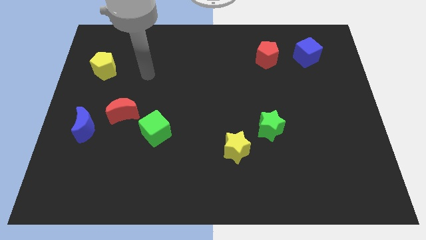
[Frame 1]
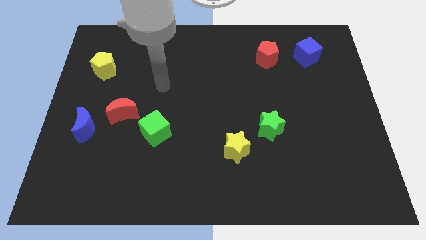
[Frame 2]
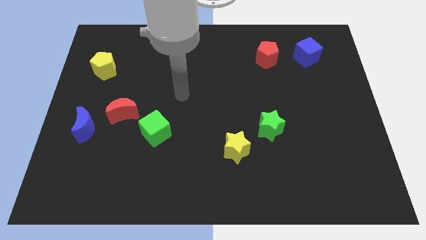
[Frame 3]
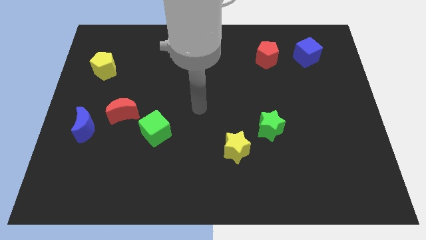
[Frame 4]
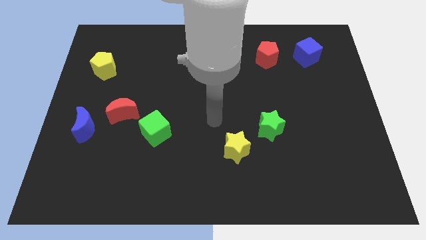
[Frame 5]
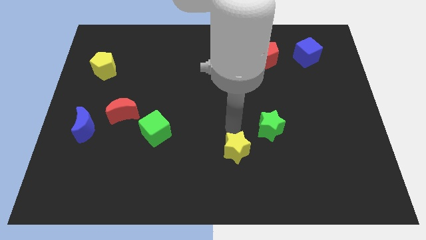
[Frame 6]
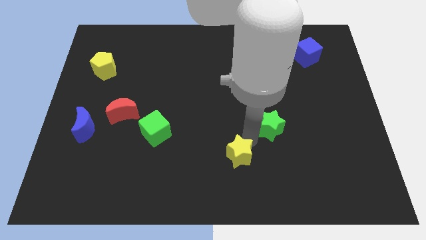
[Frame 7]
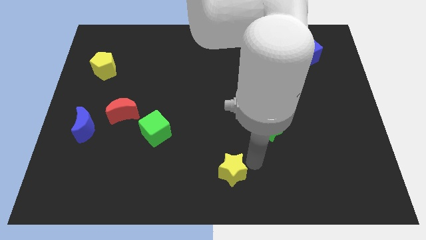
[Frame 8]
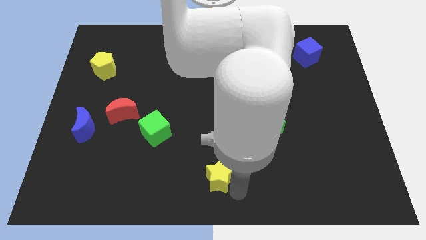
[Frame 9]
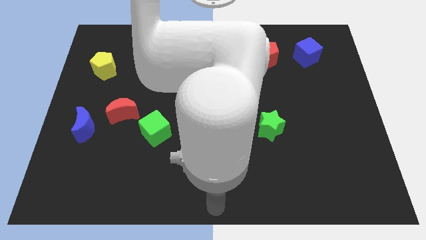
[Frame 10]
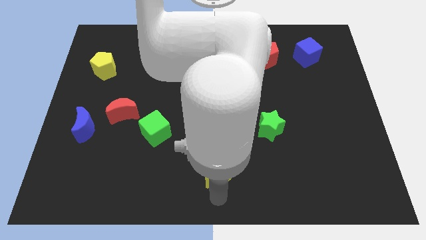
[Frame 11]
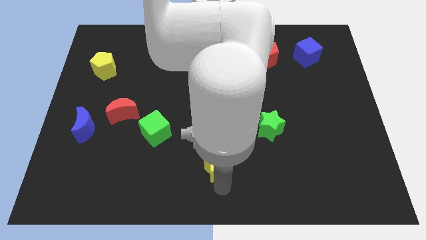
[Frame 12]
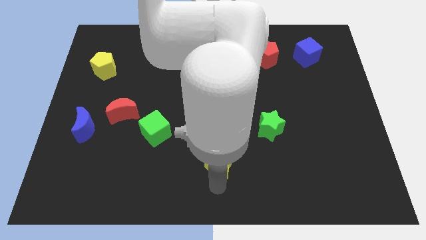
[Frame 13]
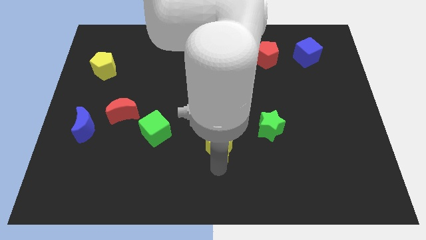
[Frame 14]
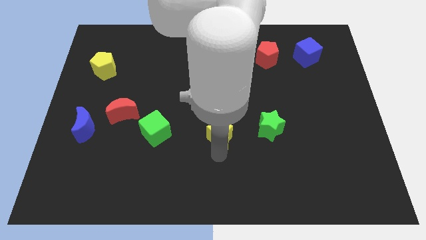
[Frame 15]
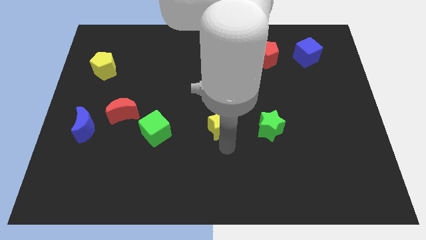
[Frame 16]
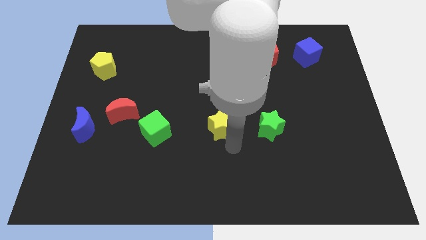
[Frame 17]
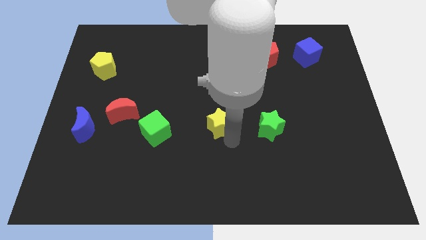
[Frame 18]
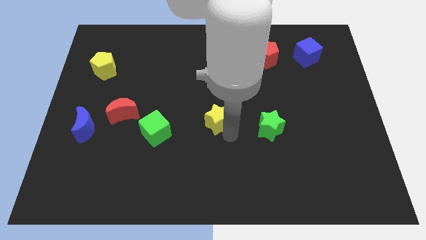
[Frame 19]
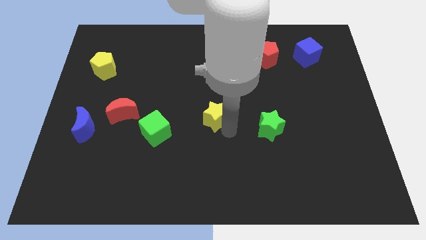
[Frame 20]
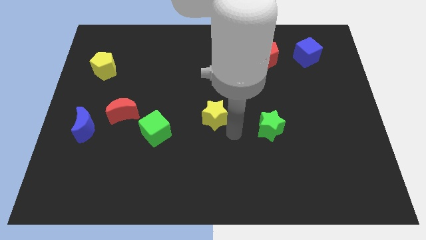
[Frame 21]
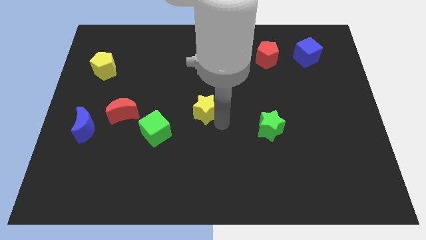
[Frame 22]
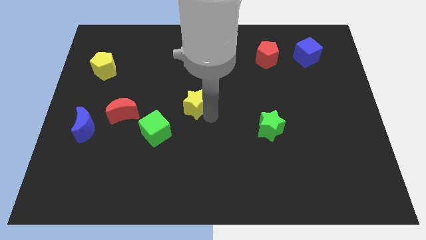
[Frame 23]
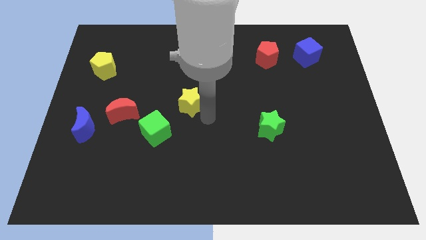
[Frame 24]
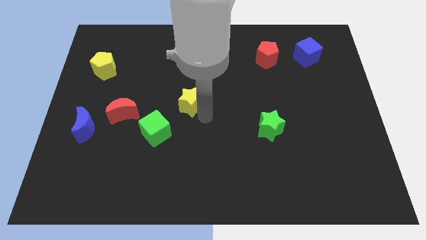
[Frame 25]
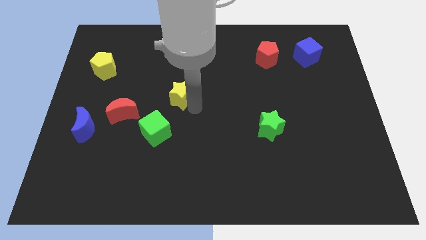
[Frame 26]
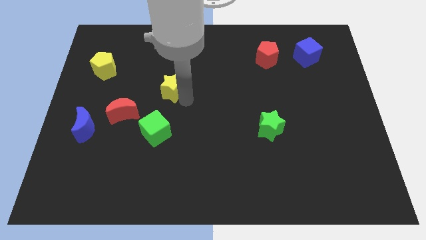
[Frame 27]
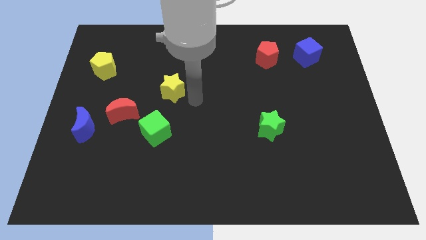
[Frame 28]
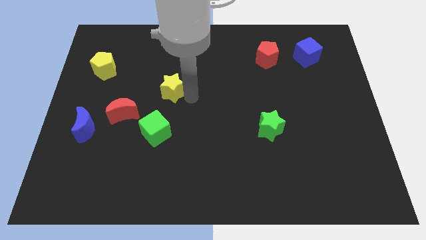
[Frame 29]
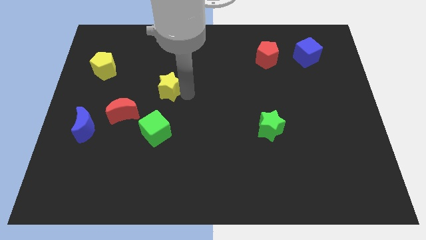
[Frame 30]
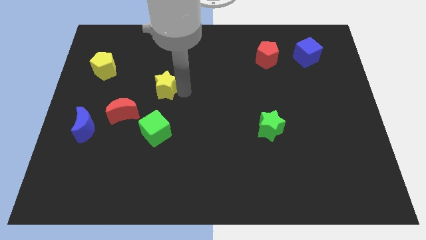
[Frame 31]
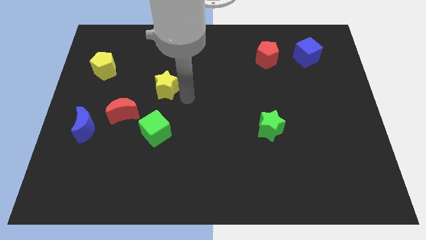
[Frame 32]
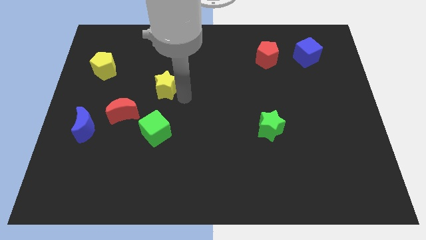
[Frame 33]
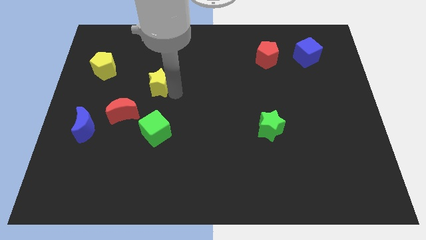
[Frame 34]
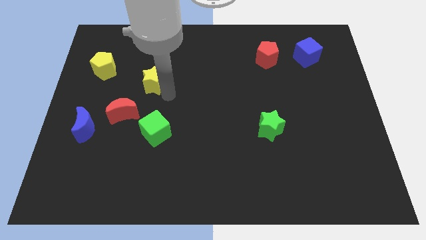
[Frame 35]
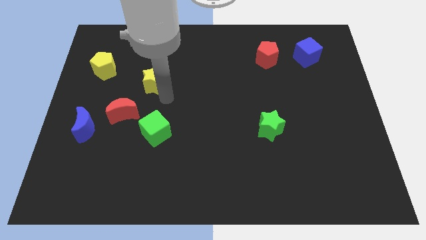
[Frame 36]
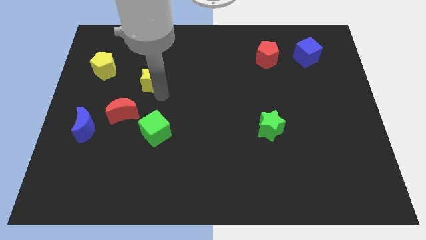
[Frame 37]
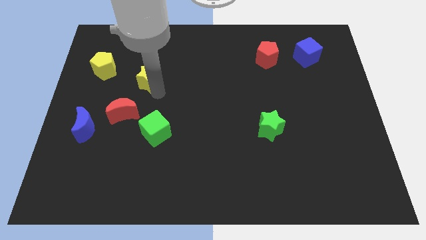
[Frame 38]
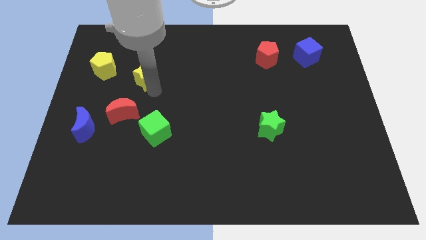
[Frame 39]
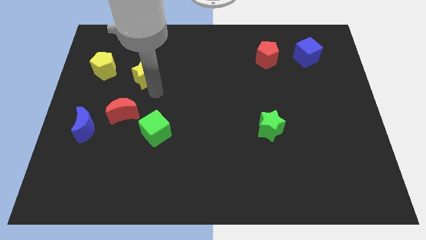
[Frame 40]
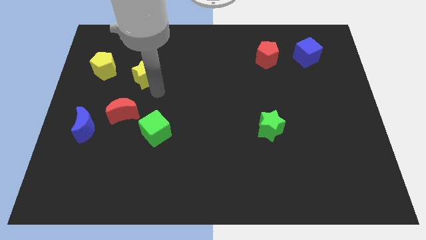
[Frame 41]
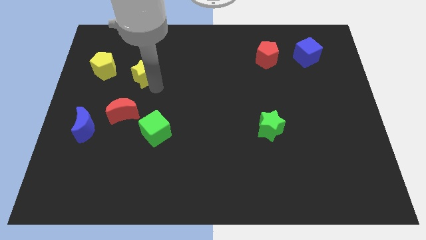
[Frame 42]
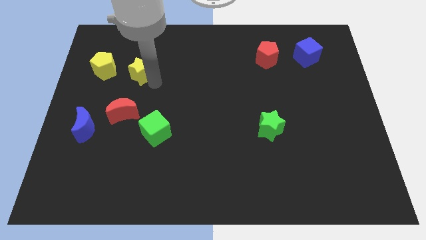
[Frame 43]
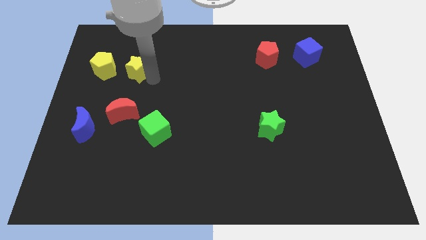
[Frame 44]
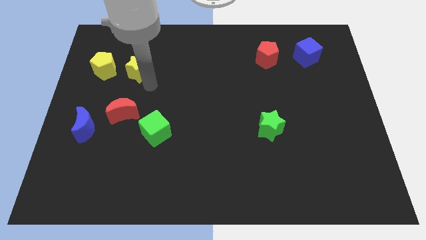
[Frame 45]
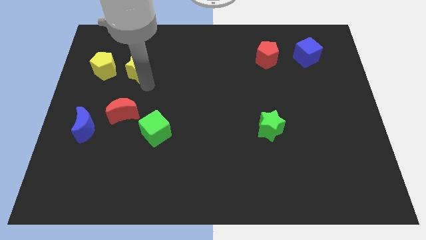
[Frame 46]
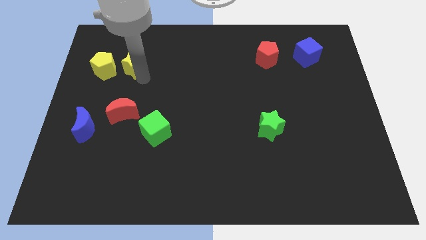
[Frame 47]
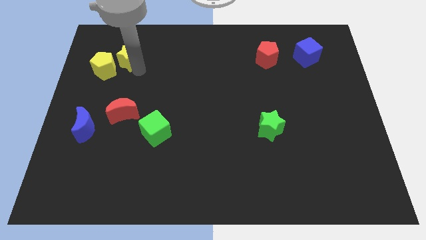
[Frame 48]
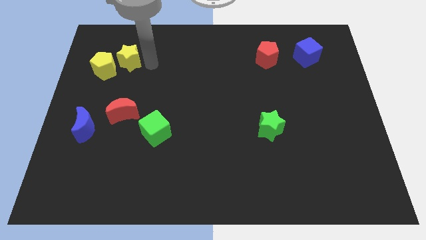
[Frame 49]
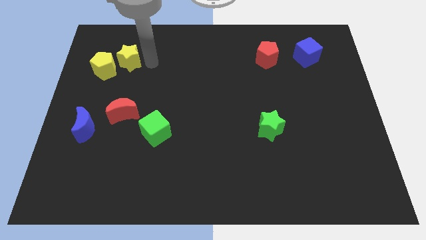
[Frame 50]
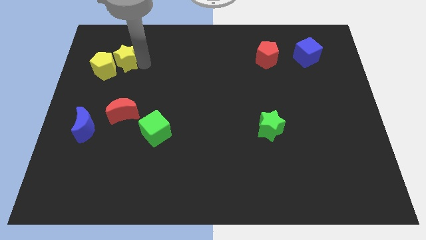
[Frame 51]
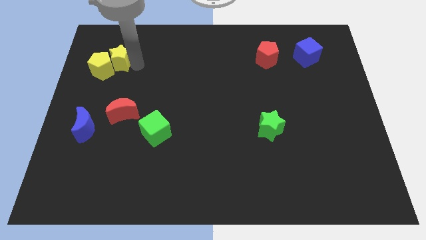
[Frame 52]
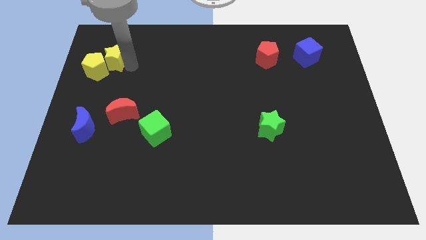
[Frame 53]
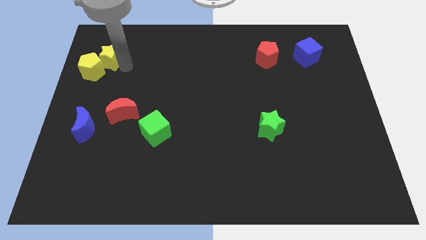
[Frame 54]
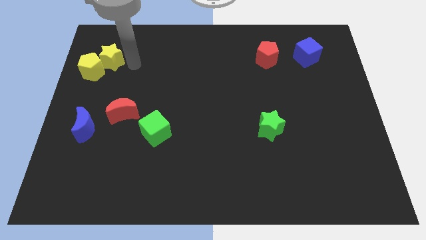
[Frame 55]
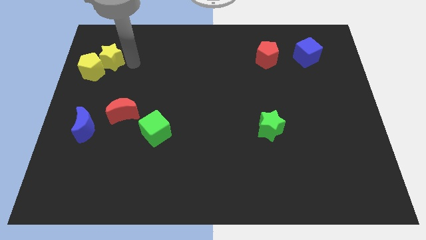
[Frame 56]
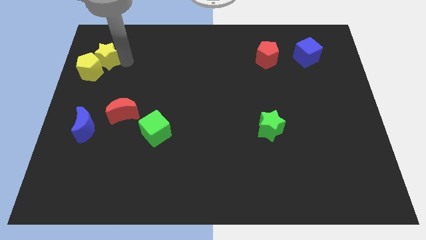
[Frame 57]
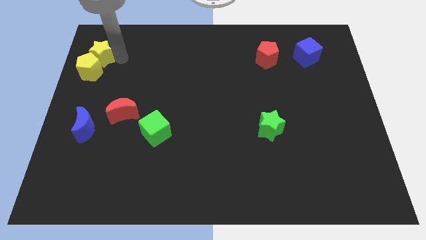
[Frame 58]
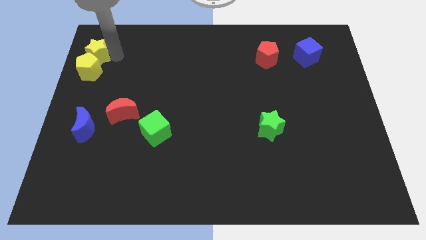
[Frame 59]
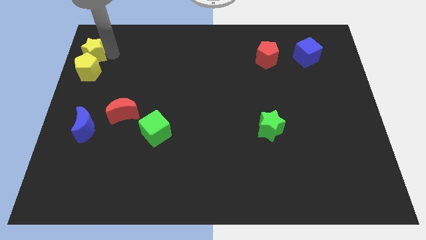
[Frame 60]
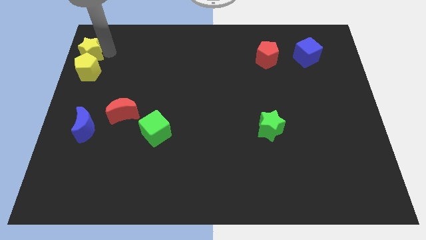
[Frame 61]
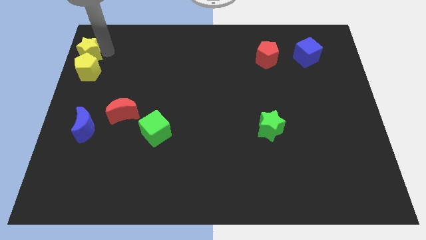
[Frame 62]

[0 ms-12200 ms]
slide the yellow star to the top left corner
